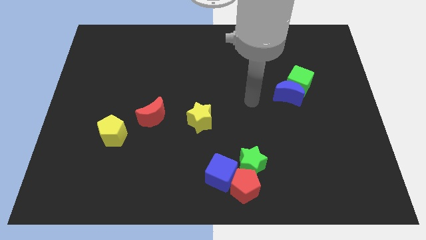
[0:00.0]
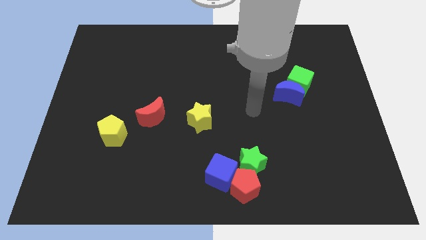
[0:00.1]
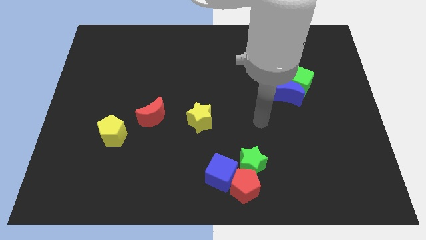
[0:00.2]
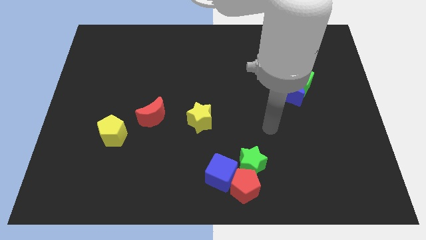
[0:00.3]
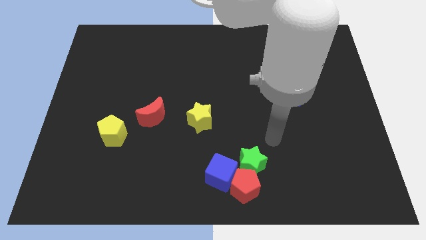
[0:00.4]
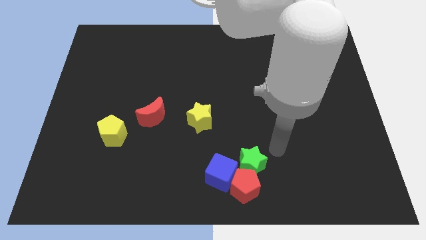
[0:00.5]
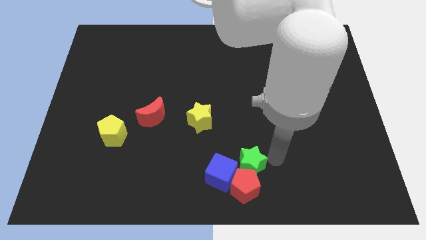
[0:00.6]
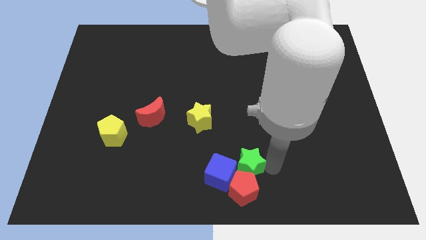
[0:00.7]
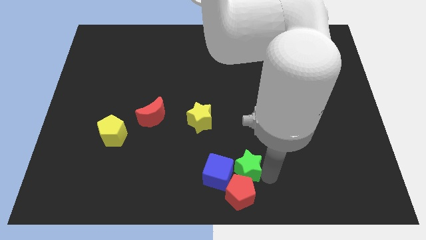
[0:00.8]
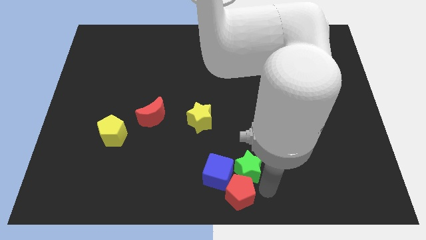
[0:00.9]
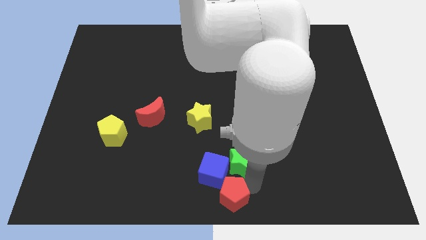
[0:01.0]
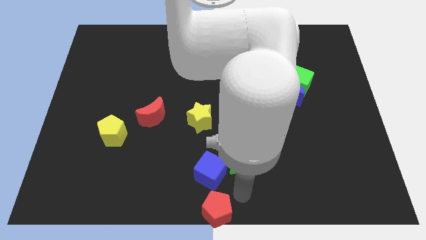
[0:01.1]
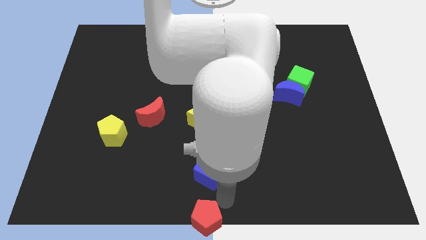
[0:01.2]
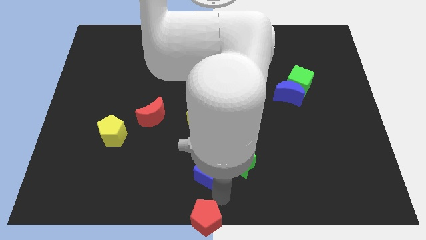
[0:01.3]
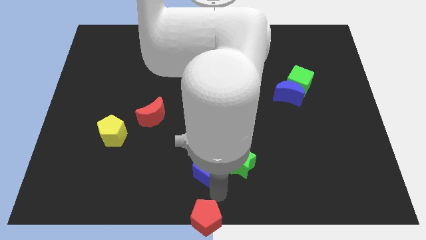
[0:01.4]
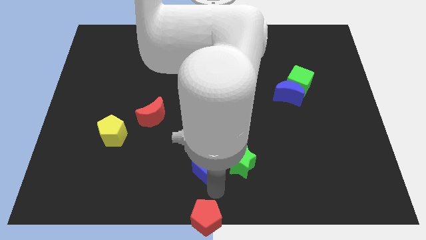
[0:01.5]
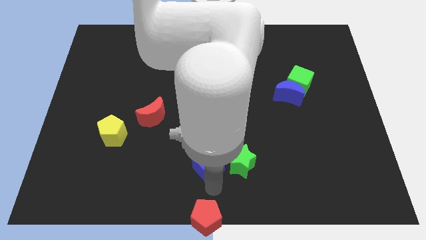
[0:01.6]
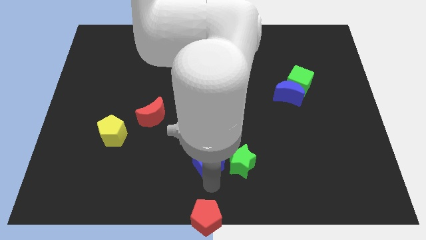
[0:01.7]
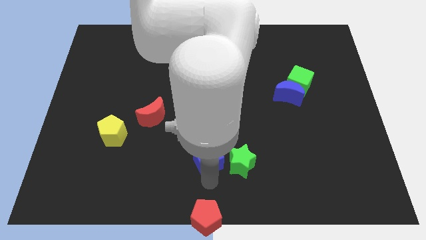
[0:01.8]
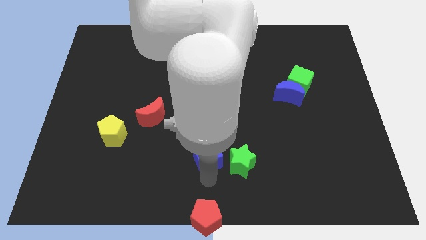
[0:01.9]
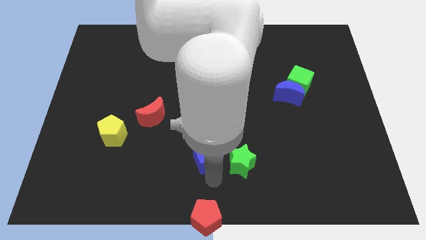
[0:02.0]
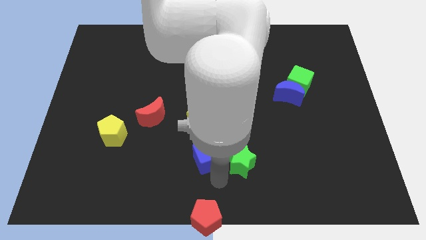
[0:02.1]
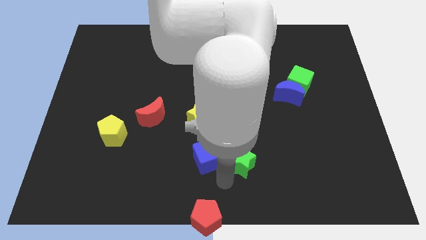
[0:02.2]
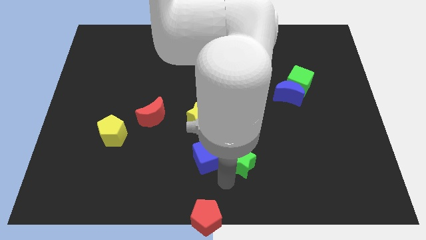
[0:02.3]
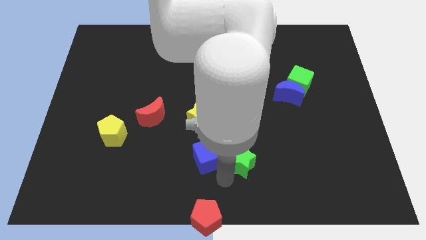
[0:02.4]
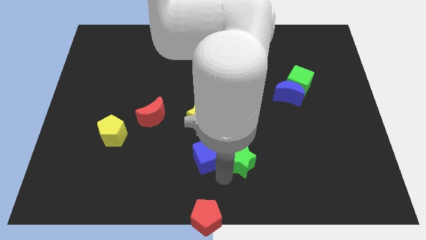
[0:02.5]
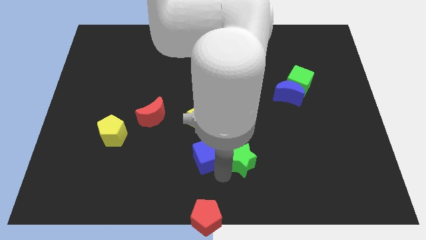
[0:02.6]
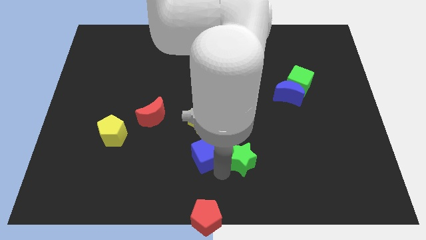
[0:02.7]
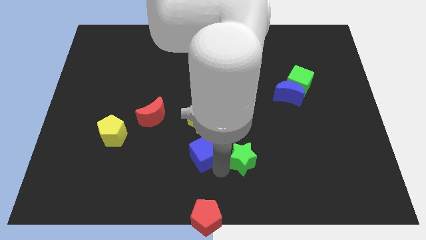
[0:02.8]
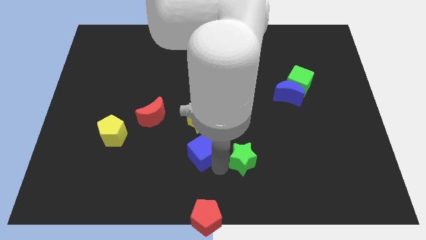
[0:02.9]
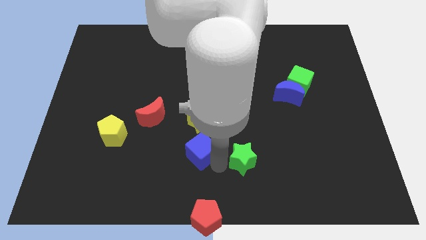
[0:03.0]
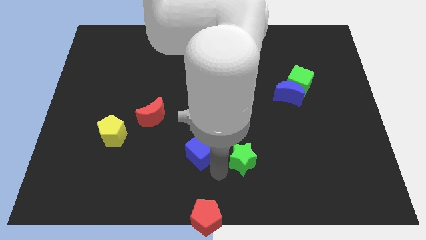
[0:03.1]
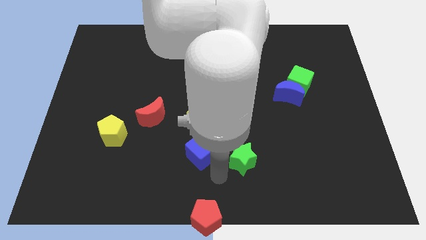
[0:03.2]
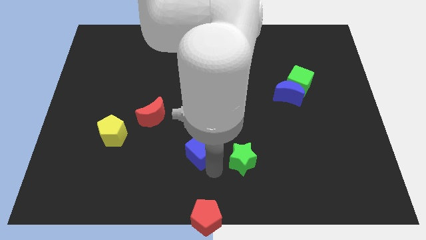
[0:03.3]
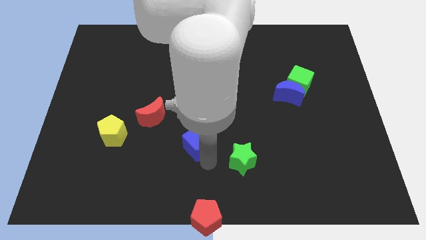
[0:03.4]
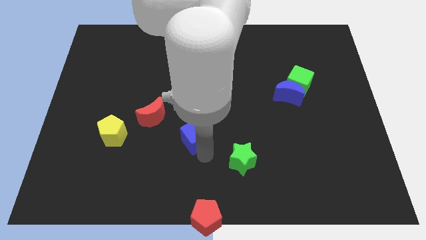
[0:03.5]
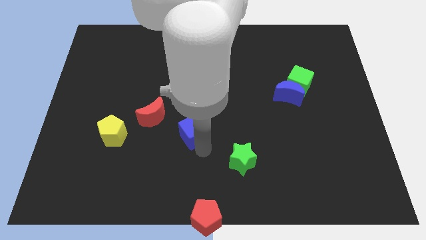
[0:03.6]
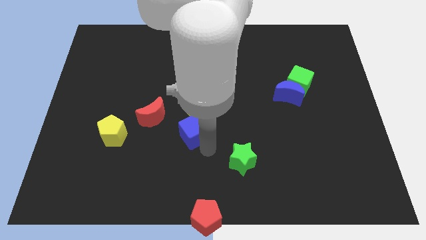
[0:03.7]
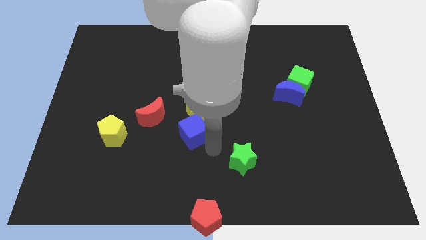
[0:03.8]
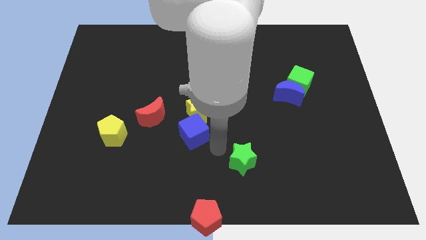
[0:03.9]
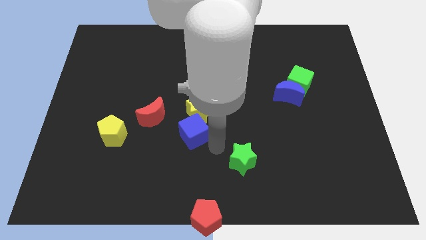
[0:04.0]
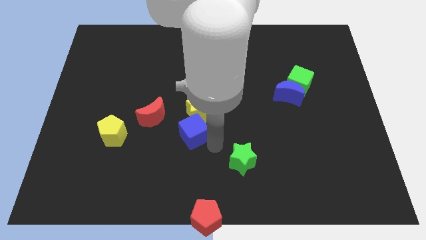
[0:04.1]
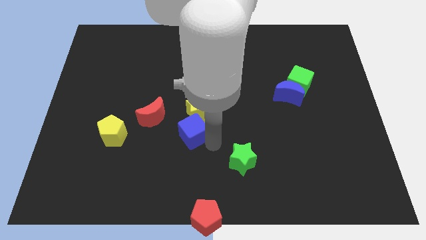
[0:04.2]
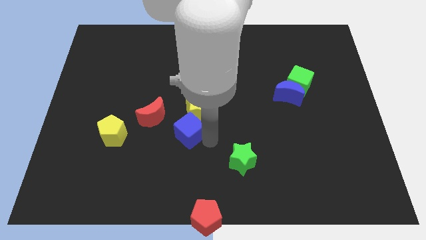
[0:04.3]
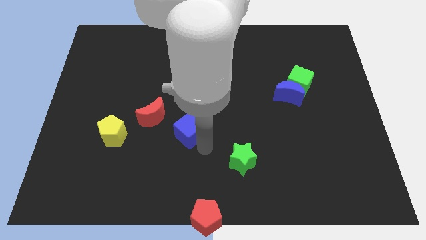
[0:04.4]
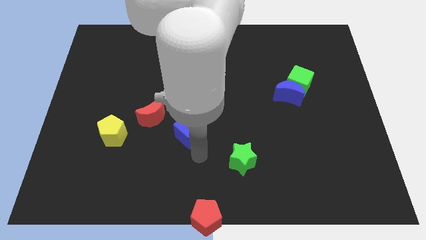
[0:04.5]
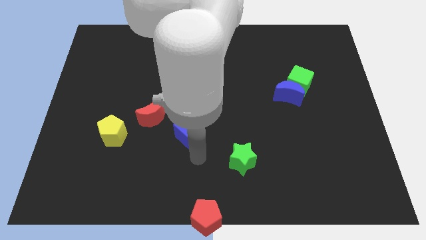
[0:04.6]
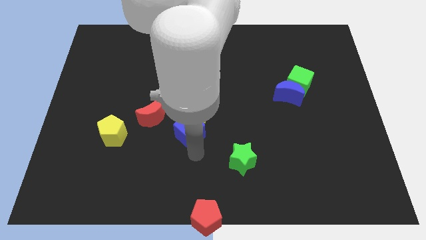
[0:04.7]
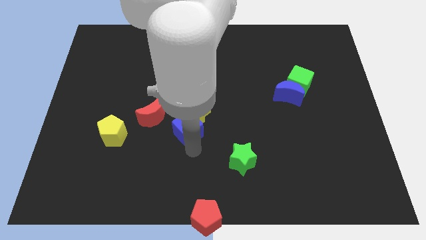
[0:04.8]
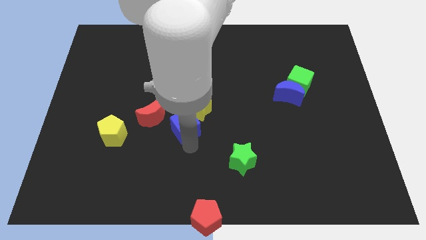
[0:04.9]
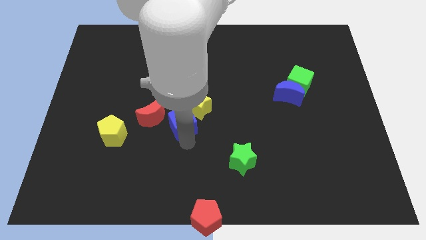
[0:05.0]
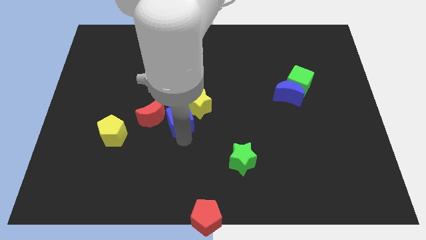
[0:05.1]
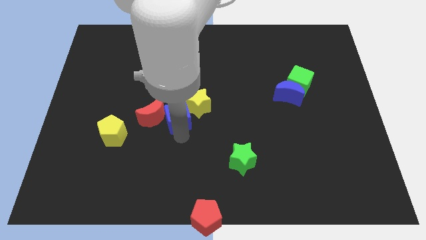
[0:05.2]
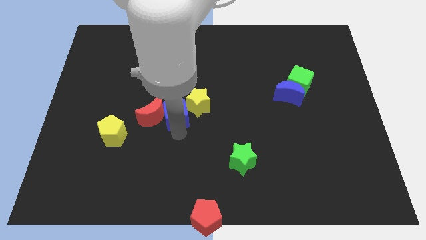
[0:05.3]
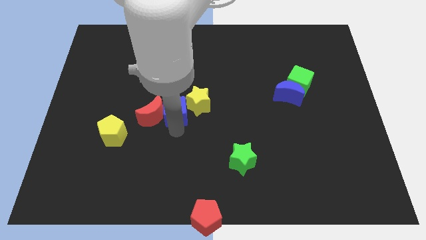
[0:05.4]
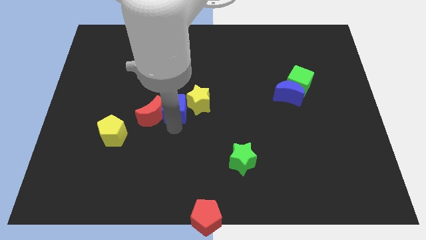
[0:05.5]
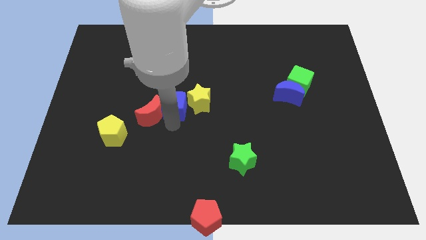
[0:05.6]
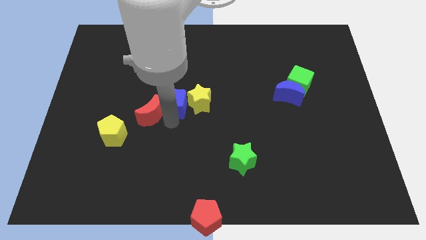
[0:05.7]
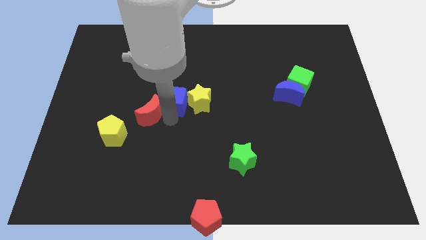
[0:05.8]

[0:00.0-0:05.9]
push the blue cube diagonally up and to the left of the yellow star

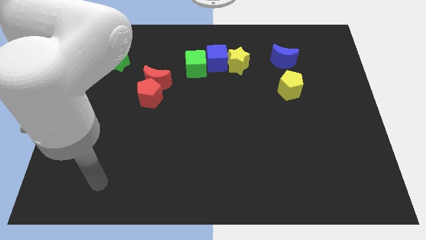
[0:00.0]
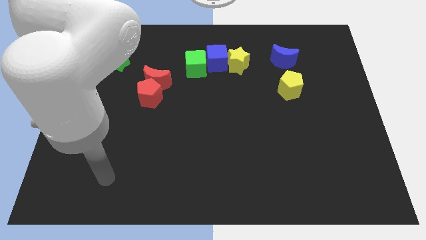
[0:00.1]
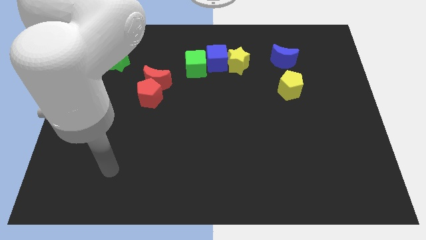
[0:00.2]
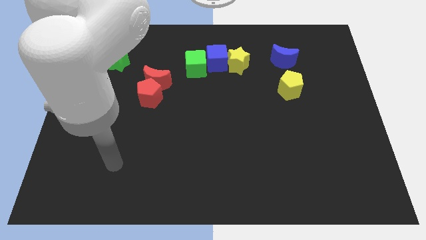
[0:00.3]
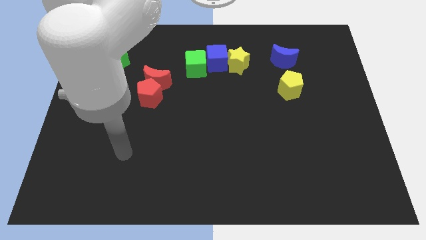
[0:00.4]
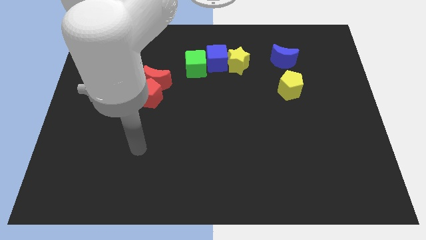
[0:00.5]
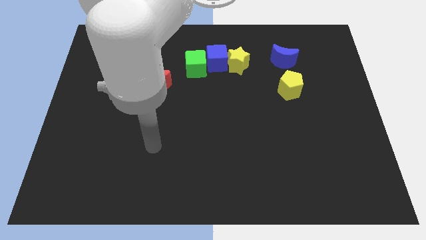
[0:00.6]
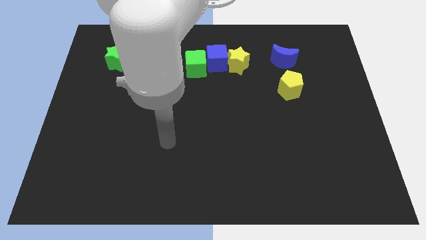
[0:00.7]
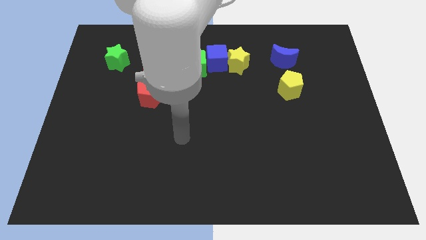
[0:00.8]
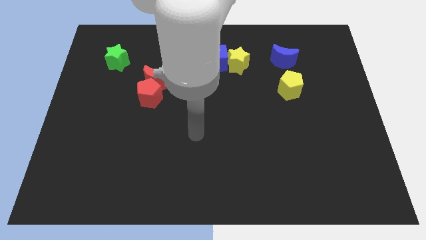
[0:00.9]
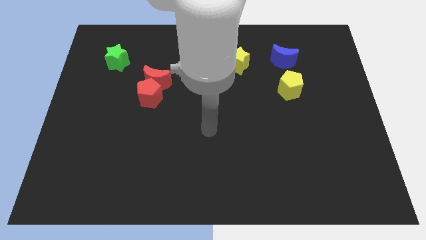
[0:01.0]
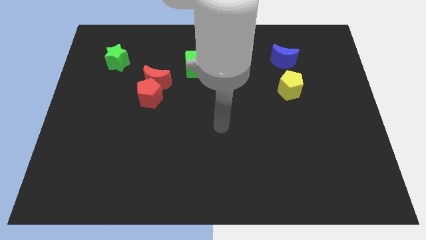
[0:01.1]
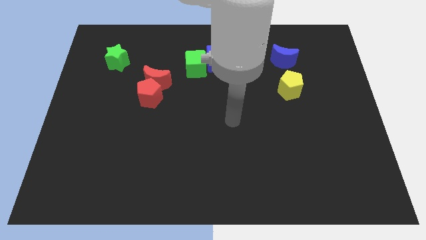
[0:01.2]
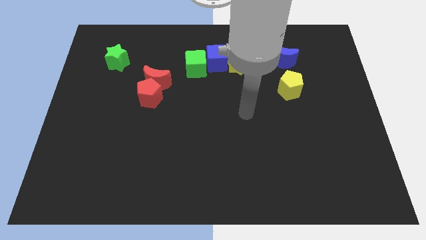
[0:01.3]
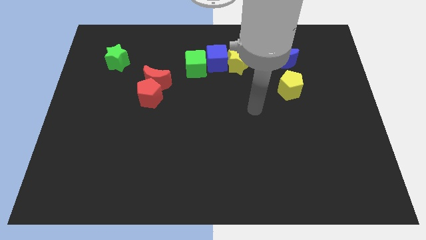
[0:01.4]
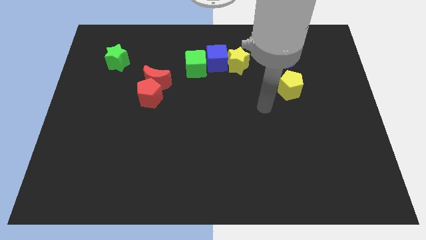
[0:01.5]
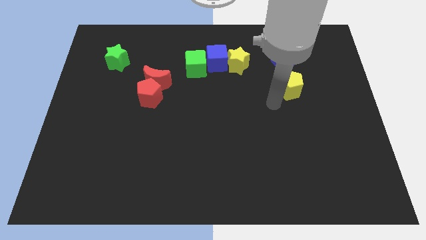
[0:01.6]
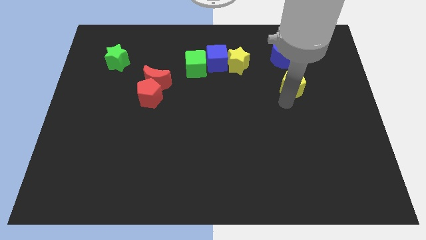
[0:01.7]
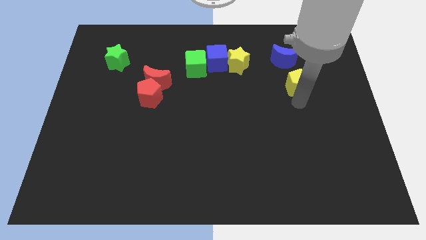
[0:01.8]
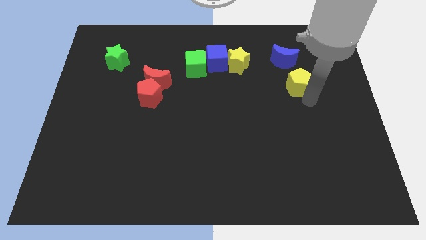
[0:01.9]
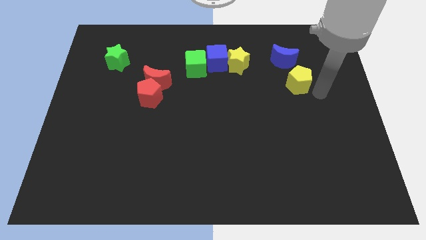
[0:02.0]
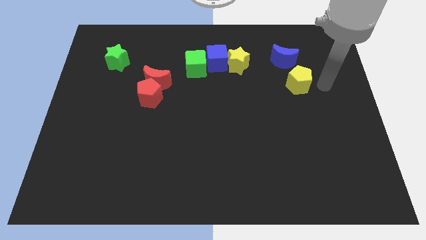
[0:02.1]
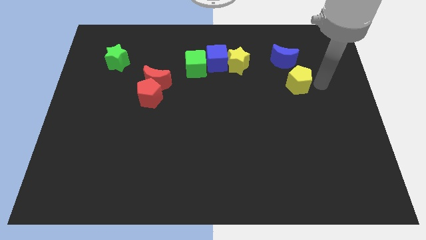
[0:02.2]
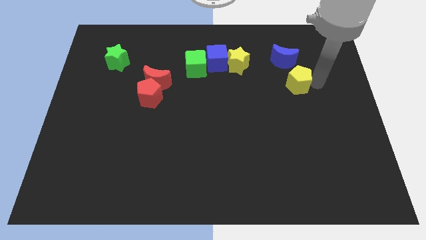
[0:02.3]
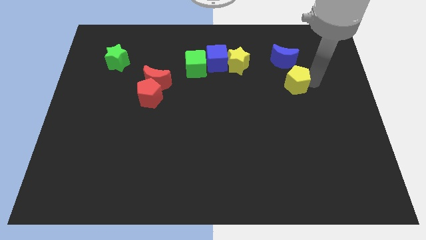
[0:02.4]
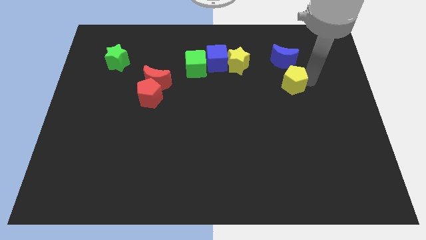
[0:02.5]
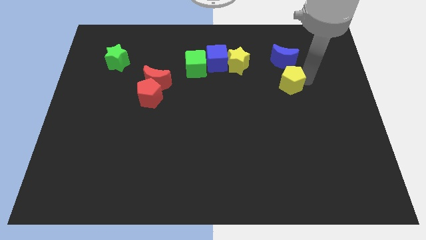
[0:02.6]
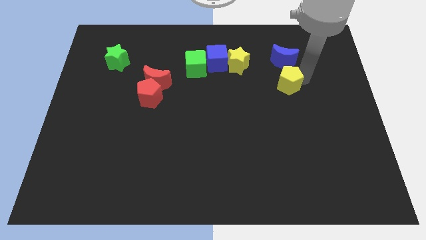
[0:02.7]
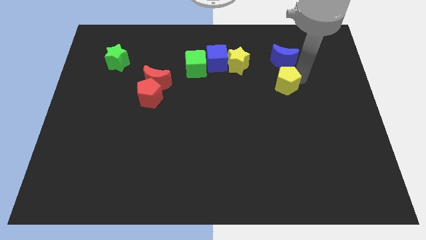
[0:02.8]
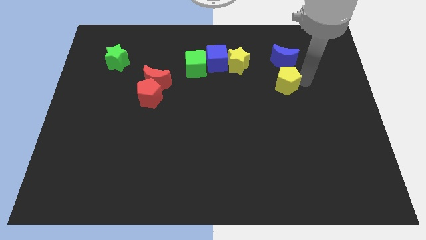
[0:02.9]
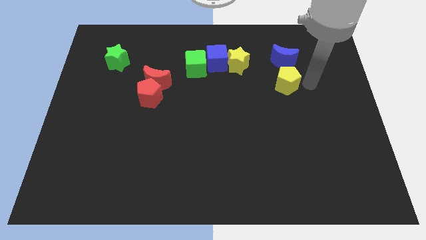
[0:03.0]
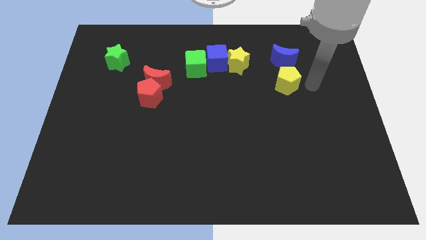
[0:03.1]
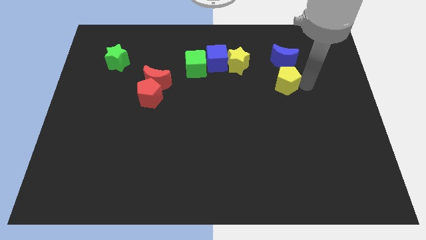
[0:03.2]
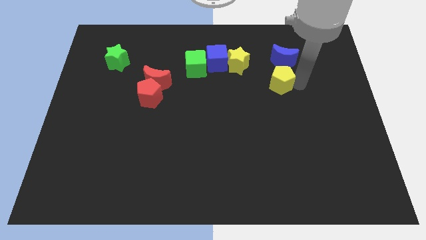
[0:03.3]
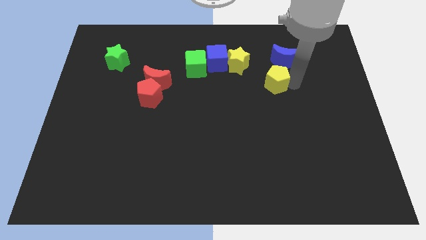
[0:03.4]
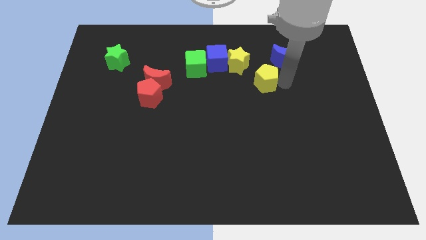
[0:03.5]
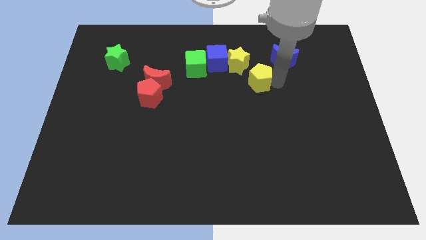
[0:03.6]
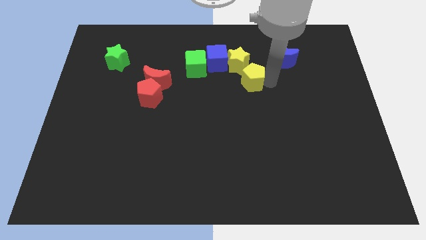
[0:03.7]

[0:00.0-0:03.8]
push the yellow pentagon diagonally down and to the right of the blue cube
